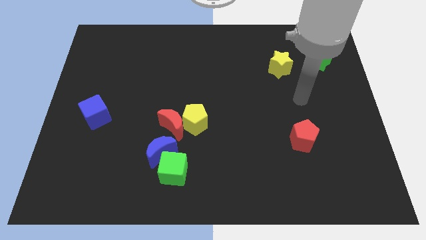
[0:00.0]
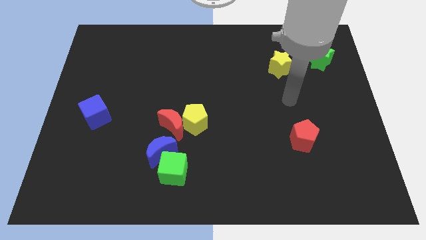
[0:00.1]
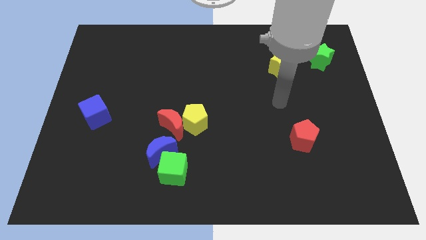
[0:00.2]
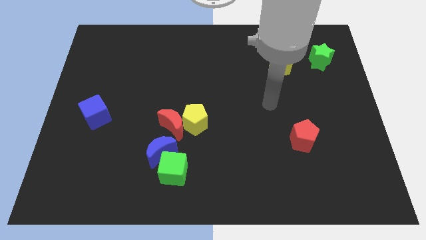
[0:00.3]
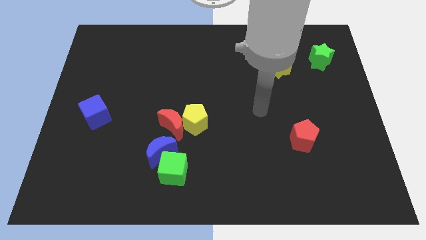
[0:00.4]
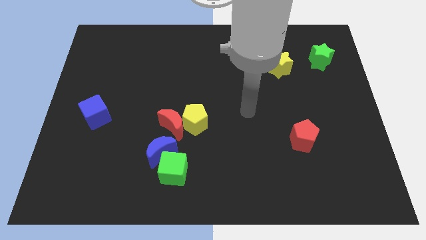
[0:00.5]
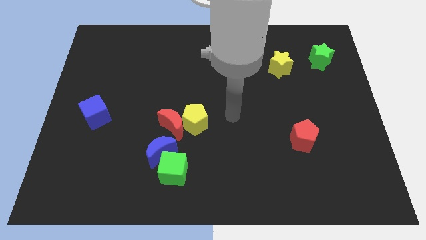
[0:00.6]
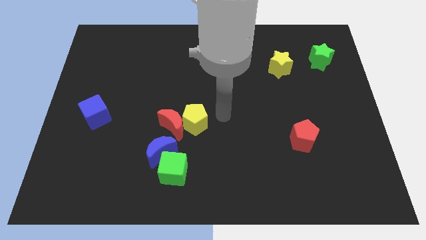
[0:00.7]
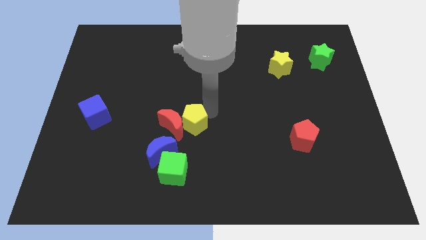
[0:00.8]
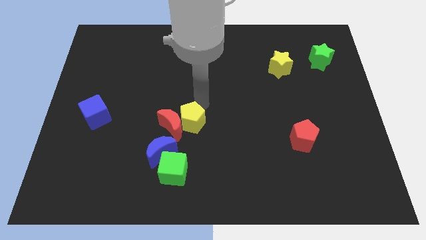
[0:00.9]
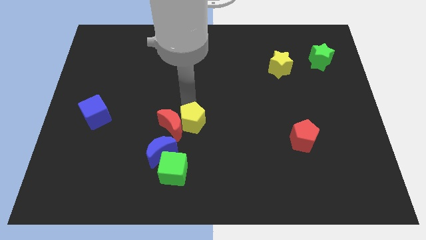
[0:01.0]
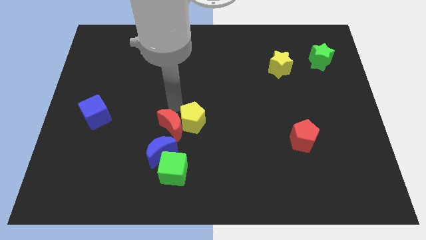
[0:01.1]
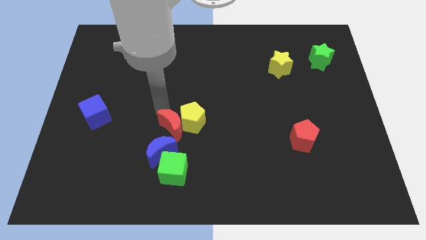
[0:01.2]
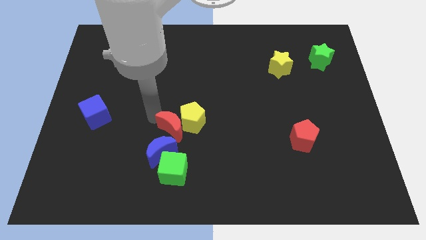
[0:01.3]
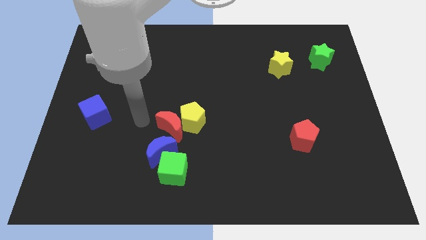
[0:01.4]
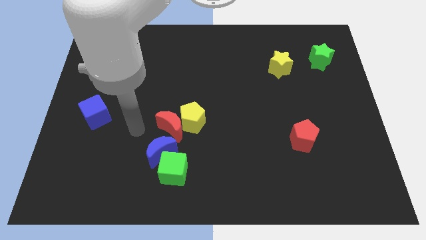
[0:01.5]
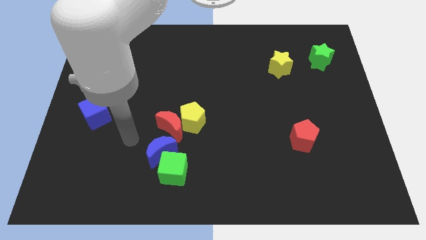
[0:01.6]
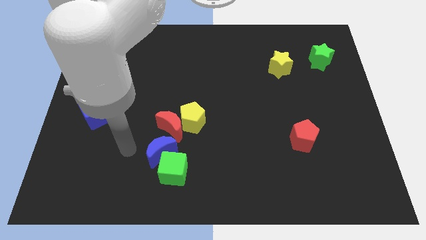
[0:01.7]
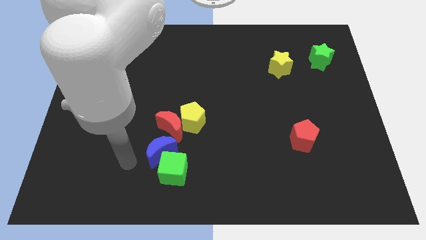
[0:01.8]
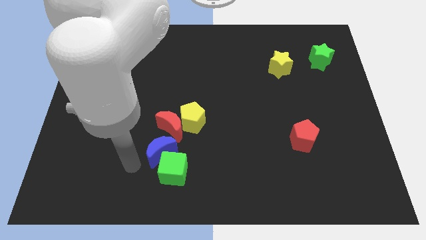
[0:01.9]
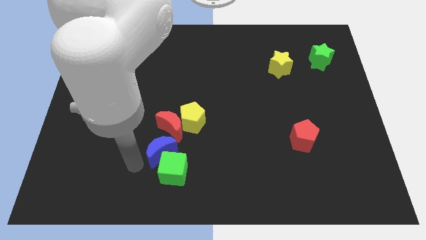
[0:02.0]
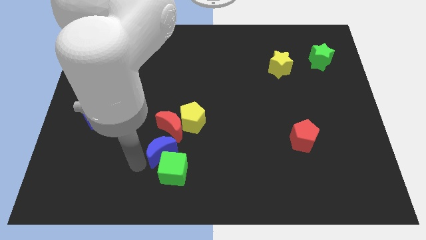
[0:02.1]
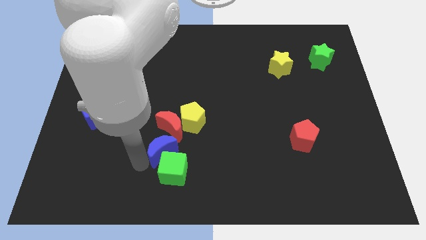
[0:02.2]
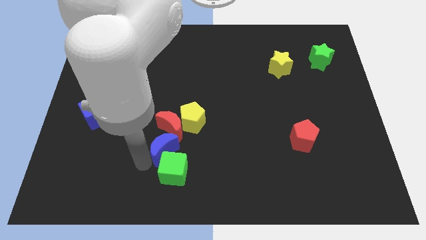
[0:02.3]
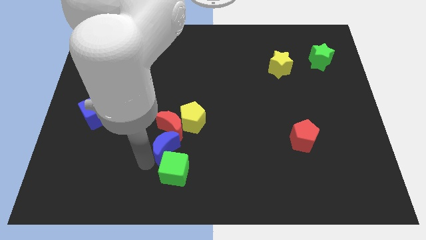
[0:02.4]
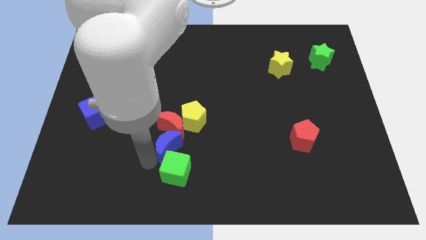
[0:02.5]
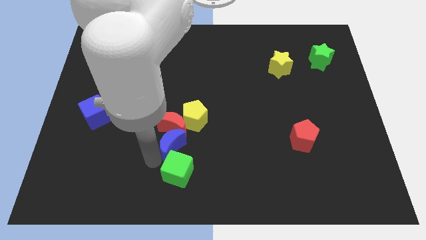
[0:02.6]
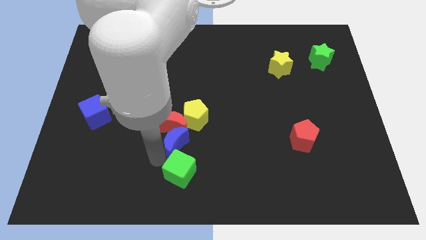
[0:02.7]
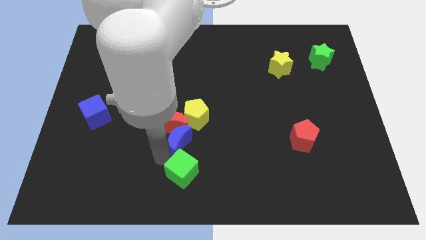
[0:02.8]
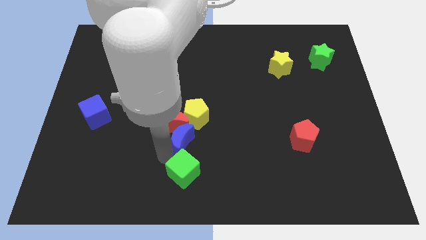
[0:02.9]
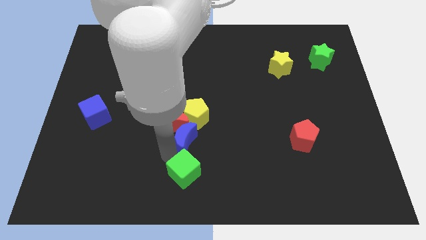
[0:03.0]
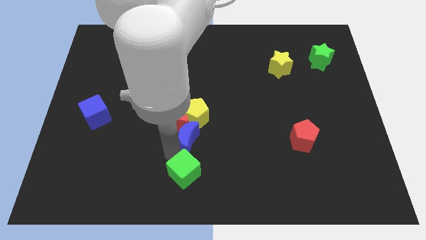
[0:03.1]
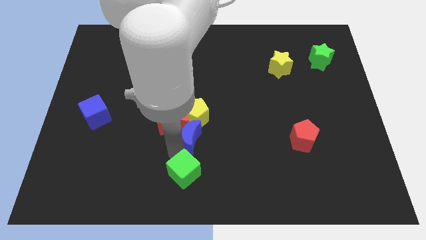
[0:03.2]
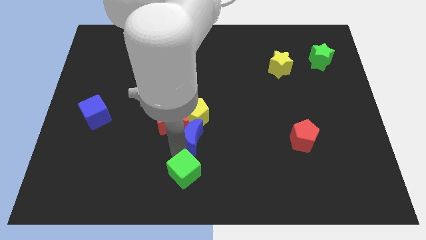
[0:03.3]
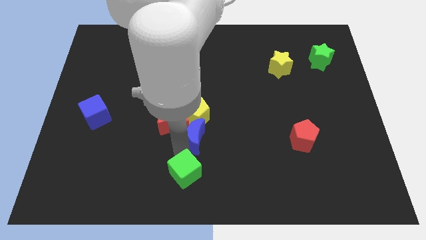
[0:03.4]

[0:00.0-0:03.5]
push the blue moon right somewhat

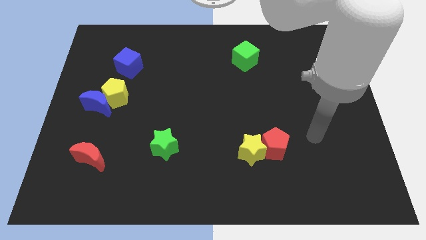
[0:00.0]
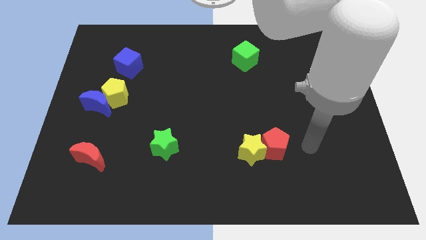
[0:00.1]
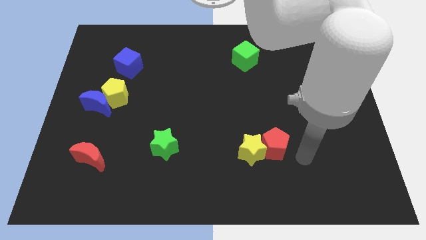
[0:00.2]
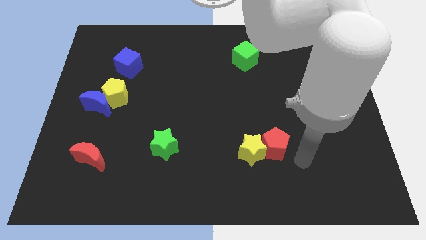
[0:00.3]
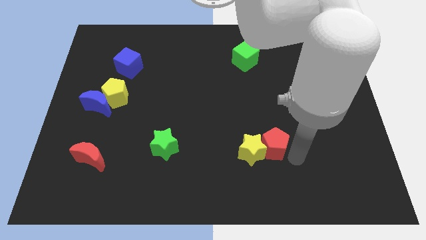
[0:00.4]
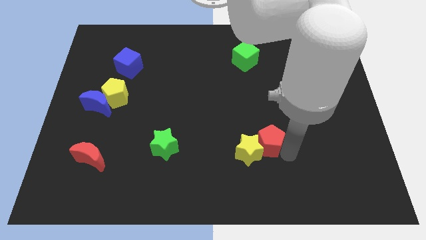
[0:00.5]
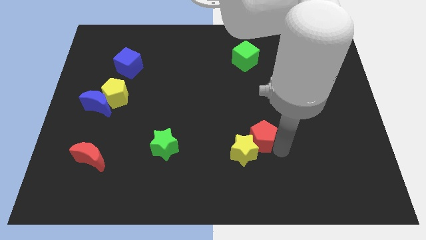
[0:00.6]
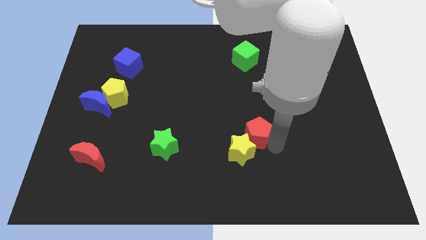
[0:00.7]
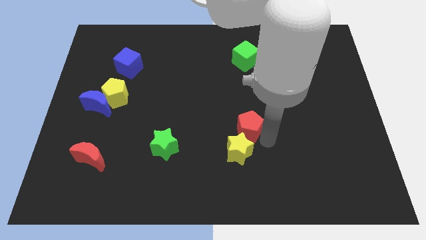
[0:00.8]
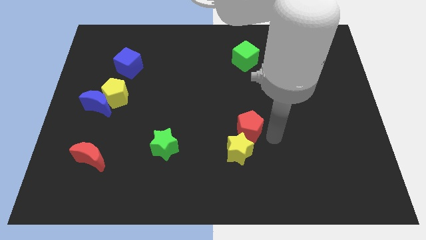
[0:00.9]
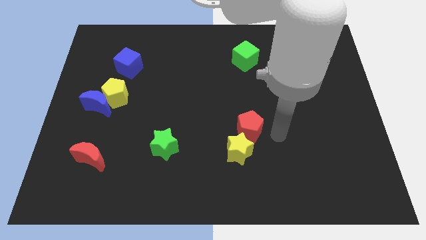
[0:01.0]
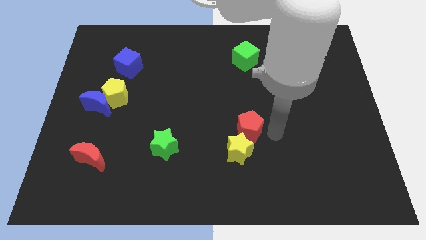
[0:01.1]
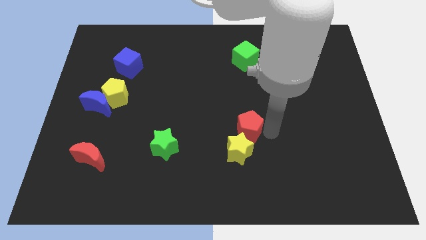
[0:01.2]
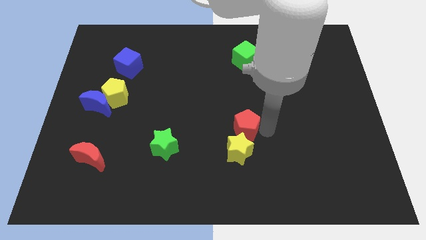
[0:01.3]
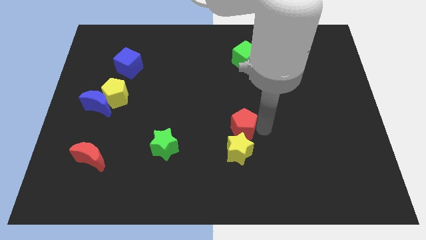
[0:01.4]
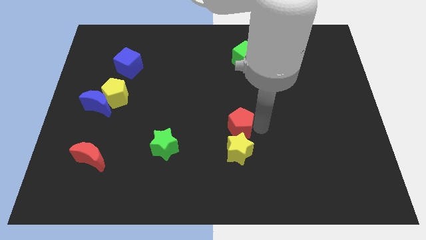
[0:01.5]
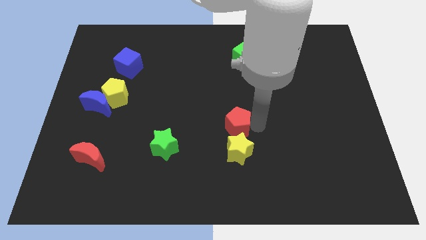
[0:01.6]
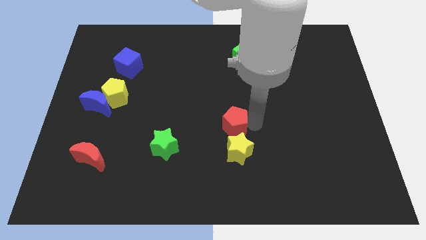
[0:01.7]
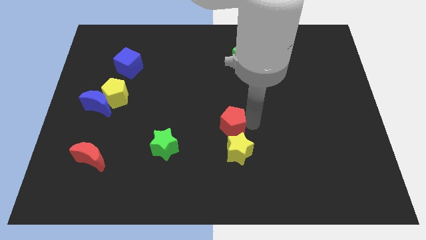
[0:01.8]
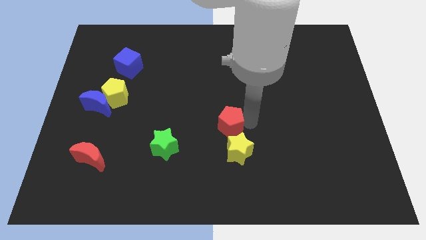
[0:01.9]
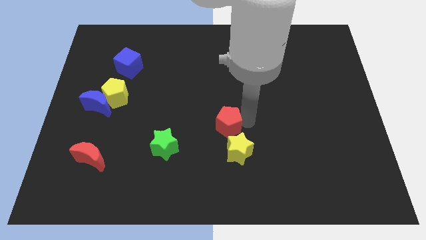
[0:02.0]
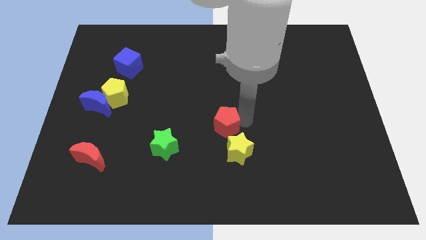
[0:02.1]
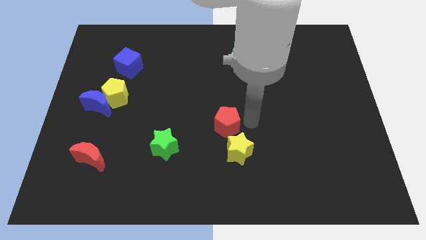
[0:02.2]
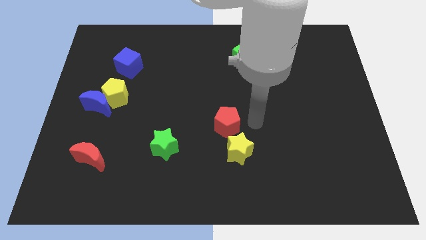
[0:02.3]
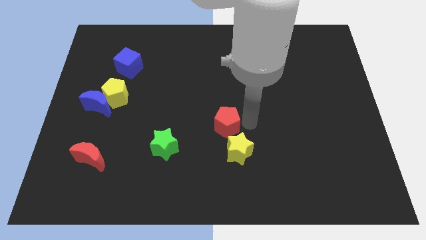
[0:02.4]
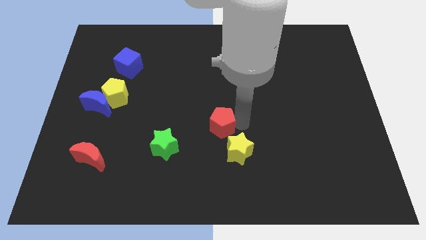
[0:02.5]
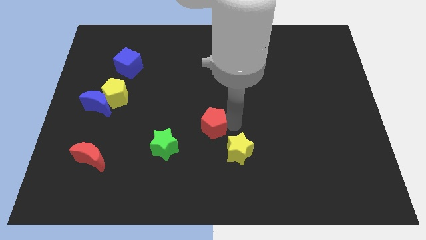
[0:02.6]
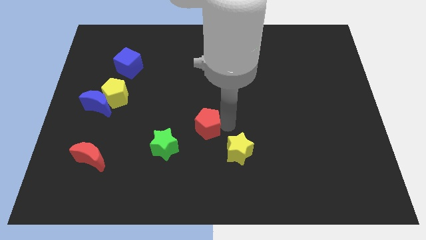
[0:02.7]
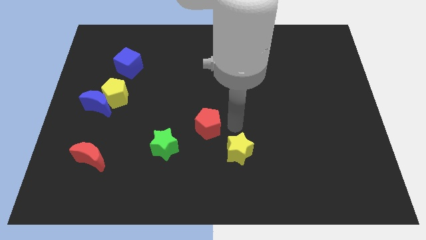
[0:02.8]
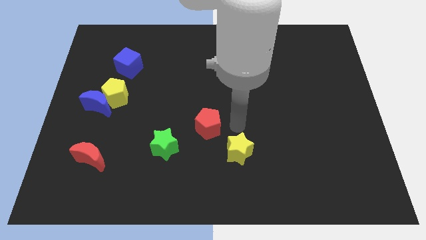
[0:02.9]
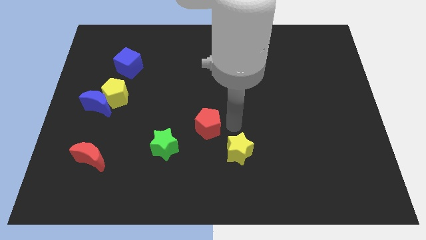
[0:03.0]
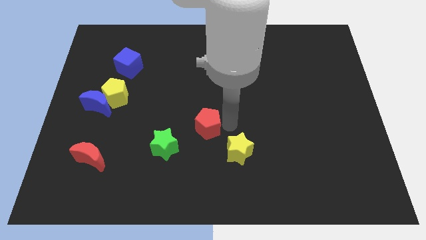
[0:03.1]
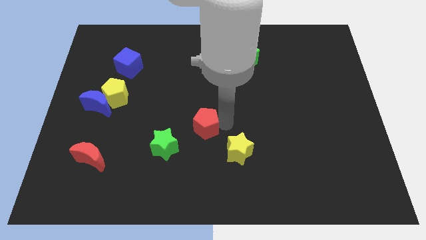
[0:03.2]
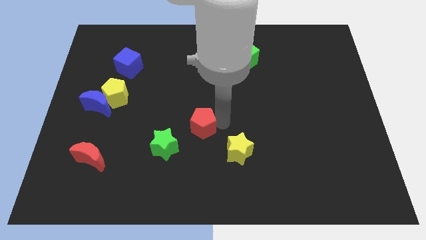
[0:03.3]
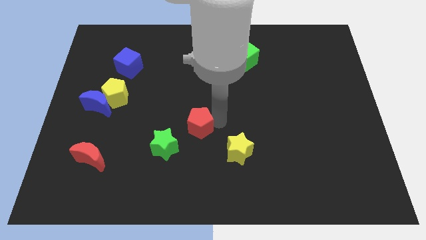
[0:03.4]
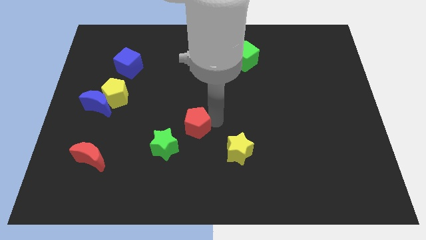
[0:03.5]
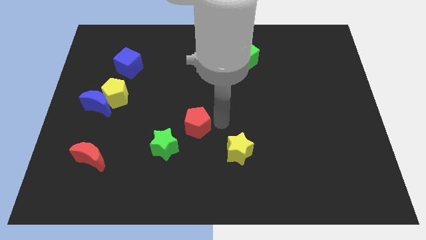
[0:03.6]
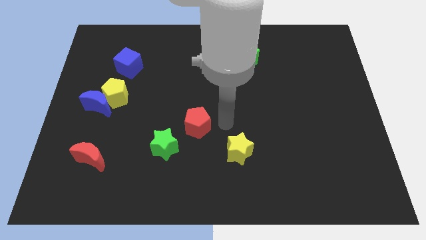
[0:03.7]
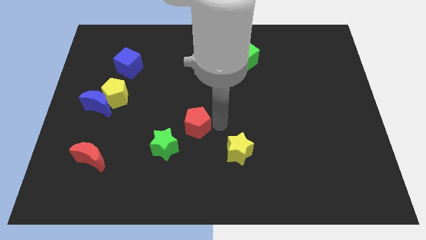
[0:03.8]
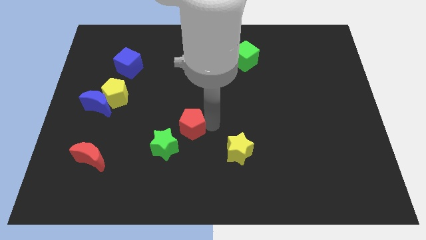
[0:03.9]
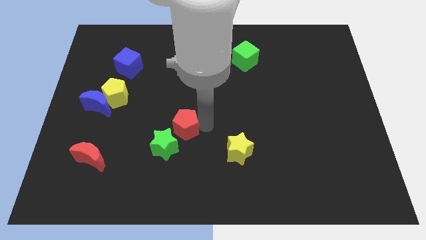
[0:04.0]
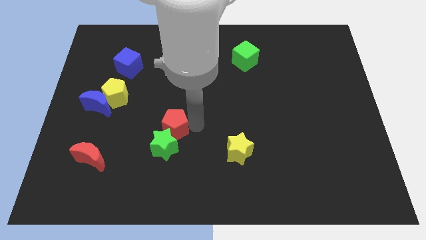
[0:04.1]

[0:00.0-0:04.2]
slide the red pentagon left

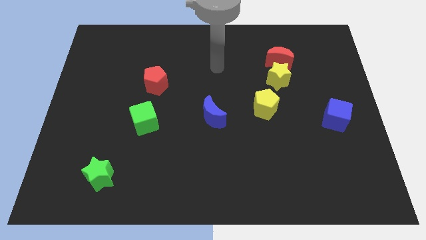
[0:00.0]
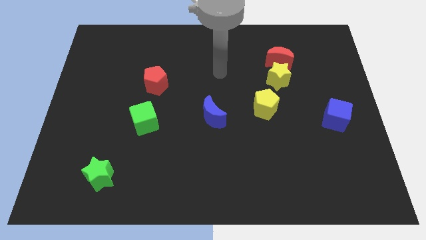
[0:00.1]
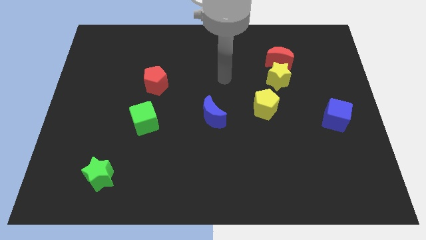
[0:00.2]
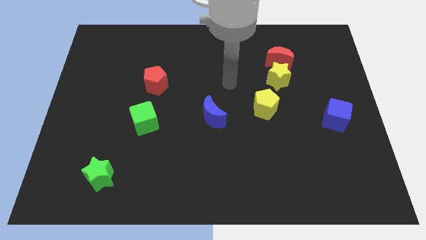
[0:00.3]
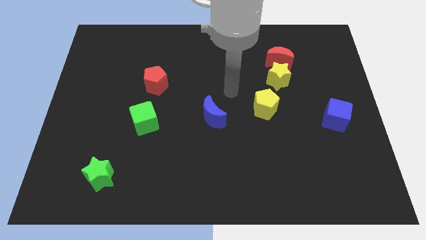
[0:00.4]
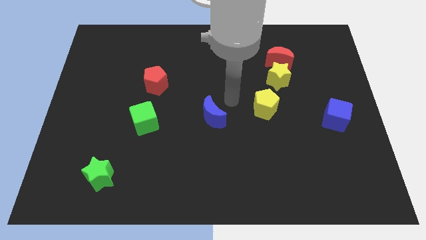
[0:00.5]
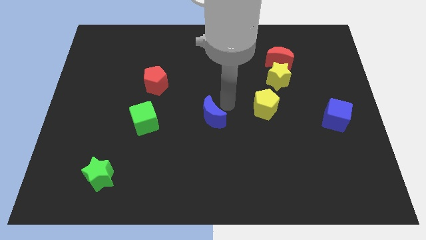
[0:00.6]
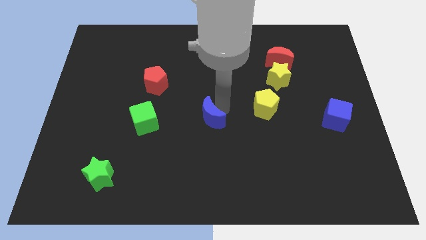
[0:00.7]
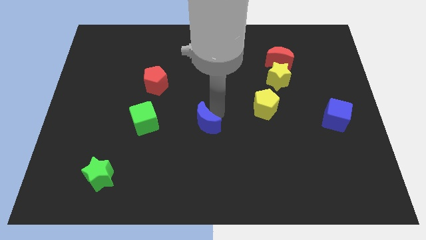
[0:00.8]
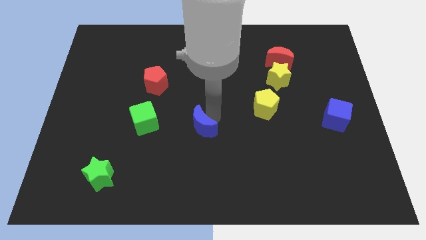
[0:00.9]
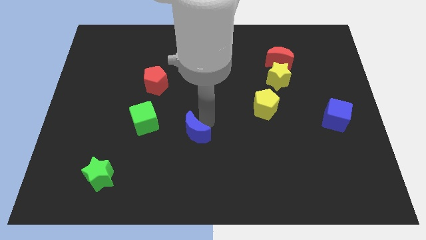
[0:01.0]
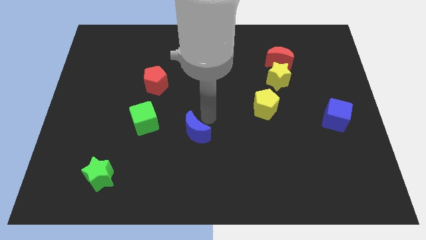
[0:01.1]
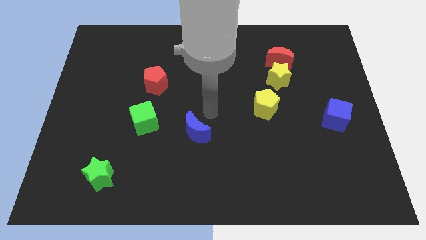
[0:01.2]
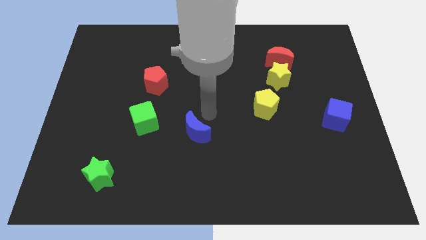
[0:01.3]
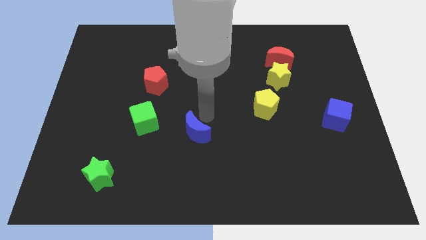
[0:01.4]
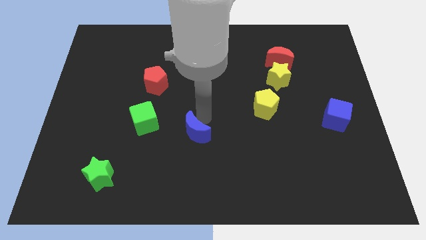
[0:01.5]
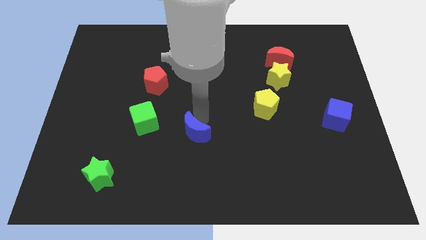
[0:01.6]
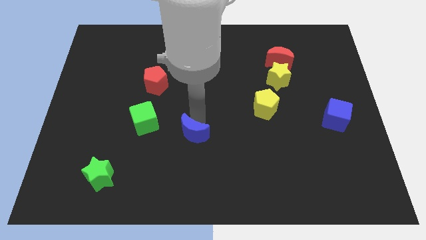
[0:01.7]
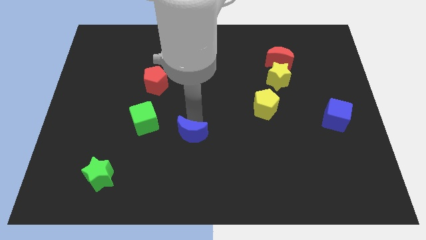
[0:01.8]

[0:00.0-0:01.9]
move the blue moon a little diagonally downwards and to the left
